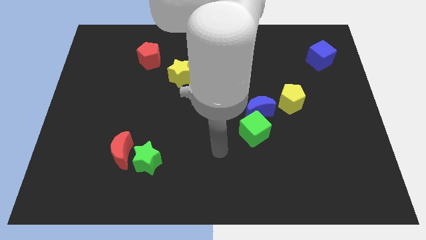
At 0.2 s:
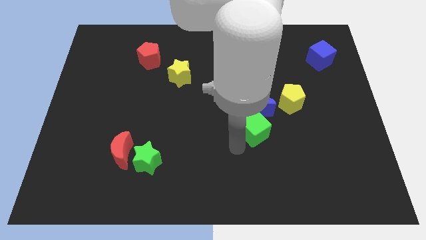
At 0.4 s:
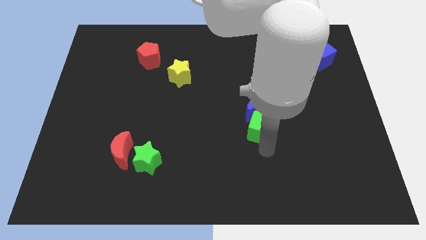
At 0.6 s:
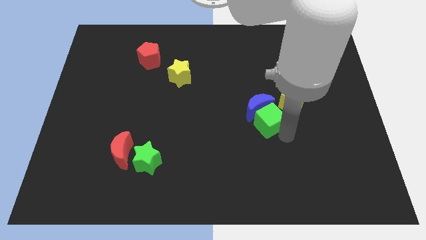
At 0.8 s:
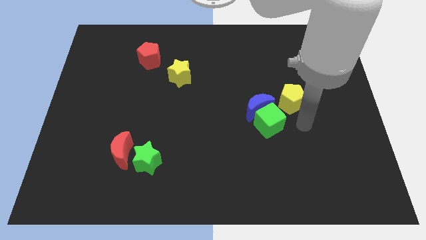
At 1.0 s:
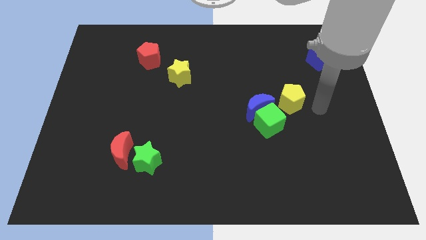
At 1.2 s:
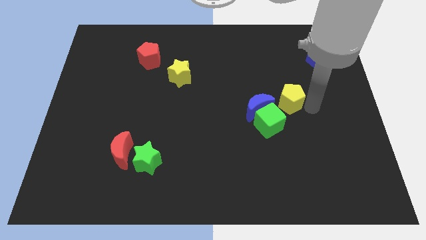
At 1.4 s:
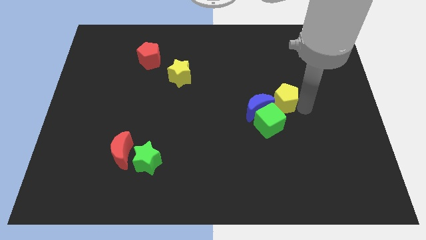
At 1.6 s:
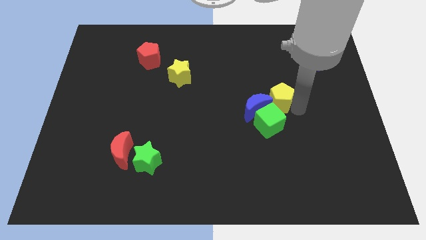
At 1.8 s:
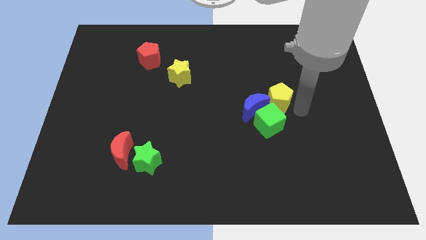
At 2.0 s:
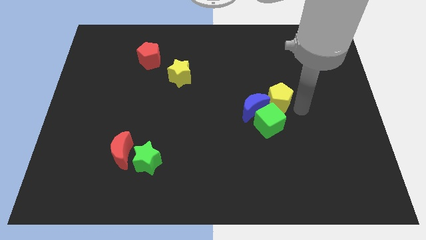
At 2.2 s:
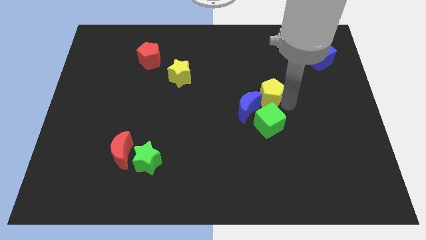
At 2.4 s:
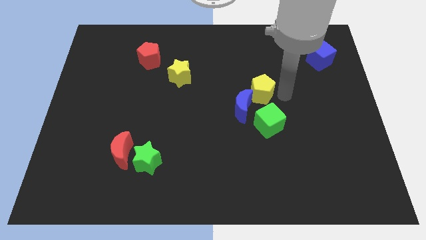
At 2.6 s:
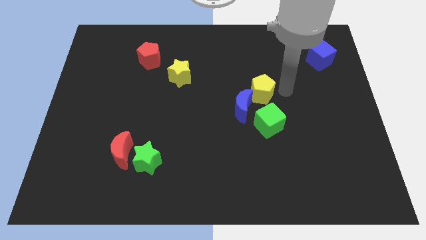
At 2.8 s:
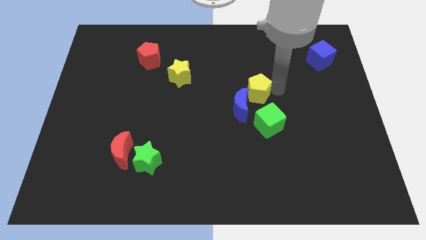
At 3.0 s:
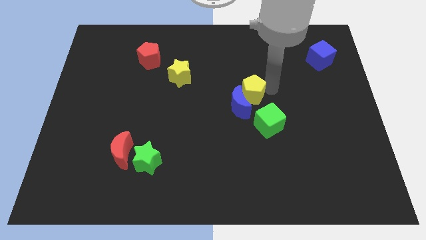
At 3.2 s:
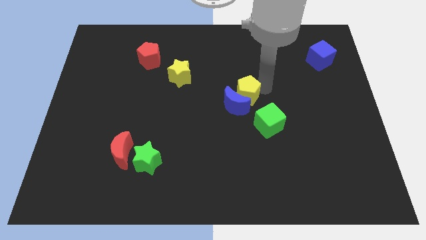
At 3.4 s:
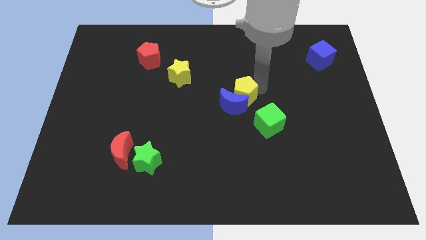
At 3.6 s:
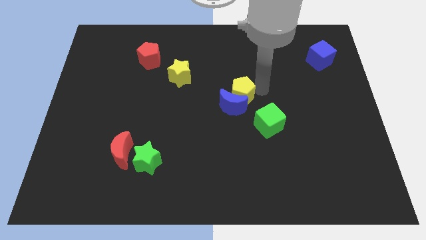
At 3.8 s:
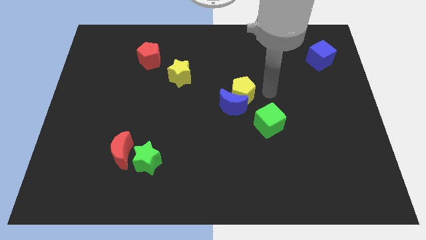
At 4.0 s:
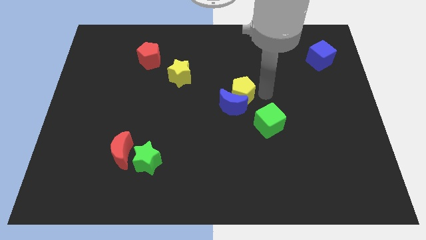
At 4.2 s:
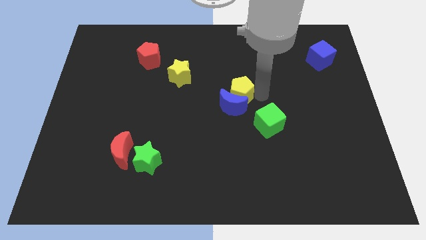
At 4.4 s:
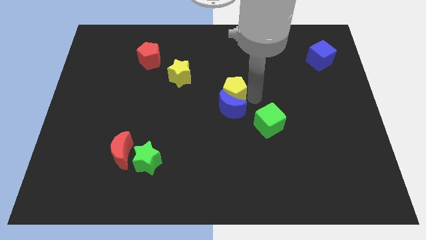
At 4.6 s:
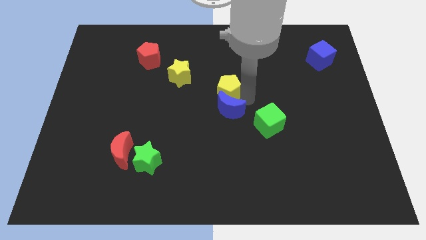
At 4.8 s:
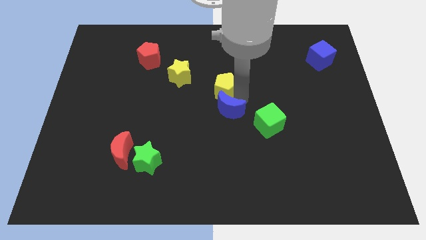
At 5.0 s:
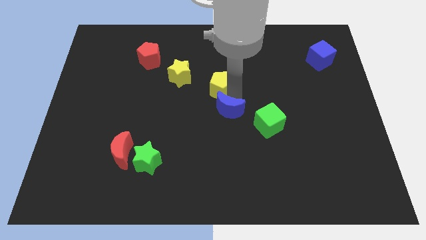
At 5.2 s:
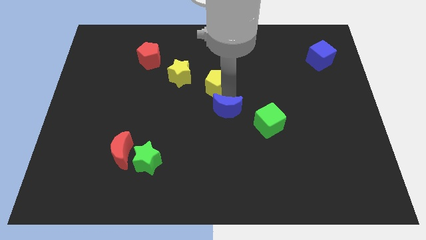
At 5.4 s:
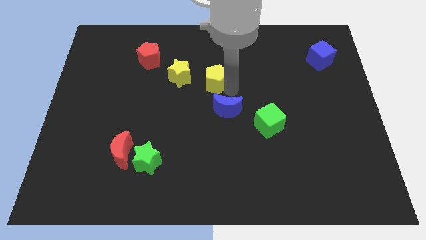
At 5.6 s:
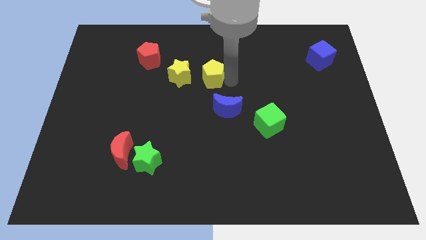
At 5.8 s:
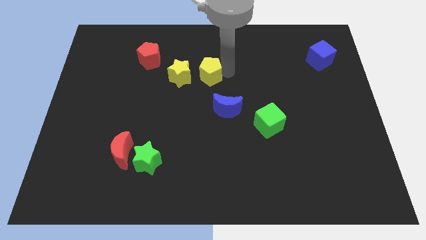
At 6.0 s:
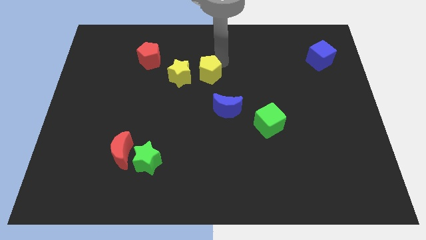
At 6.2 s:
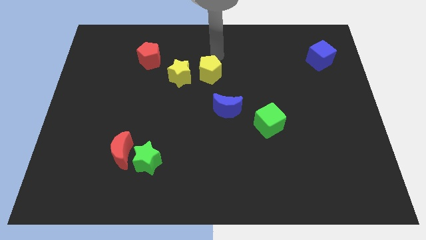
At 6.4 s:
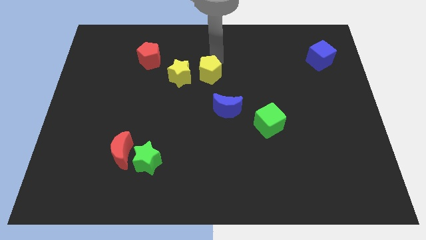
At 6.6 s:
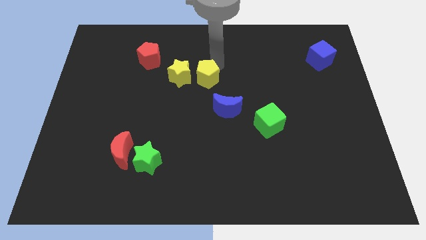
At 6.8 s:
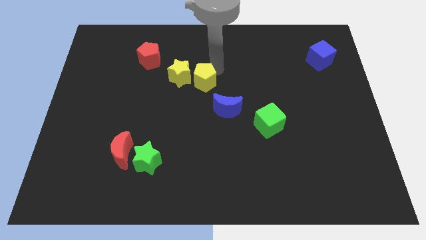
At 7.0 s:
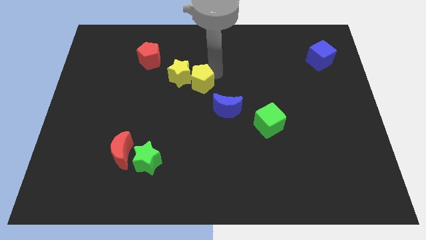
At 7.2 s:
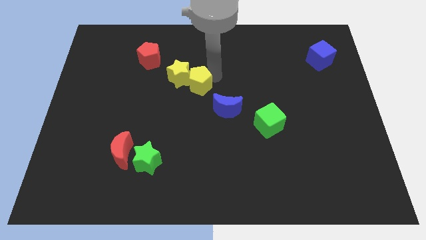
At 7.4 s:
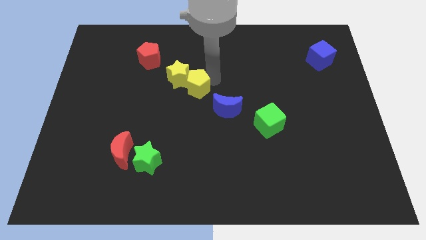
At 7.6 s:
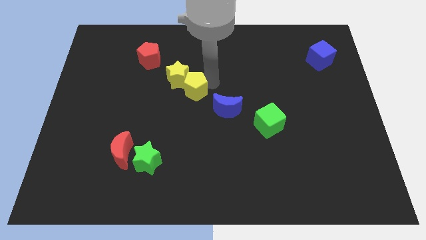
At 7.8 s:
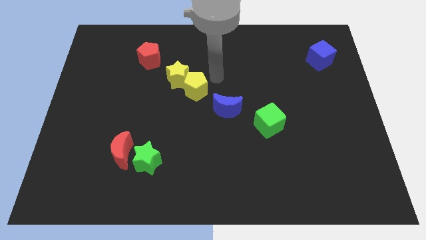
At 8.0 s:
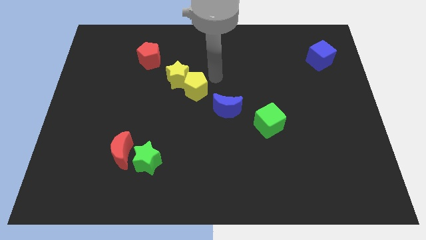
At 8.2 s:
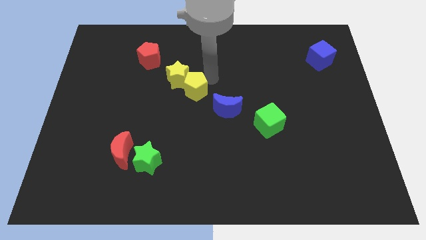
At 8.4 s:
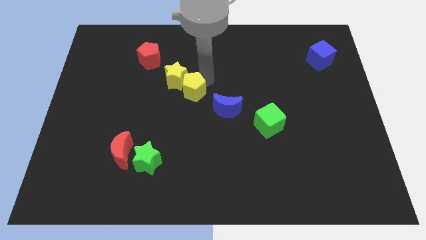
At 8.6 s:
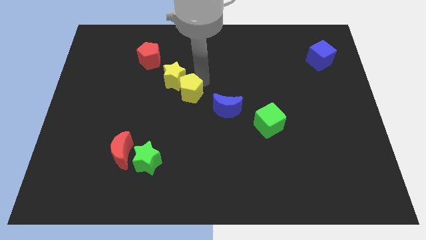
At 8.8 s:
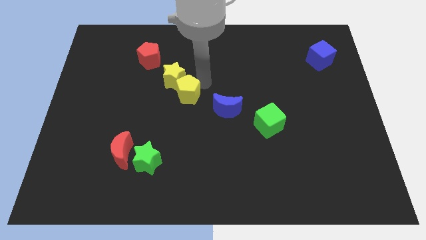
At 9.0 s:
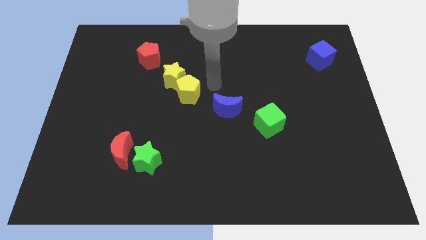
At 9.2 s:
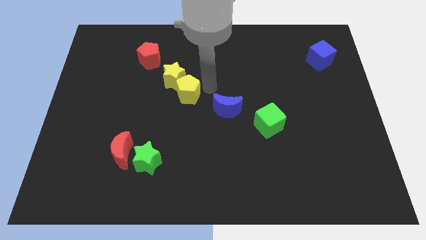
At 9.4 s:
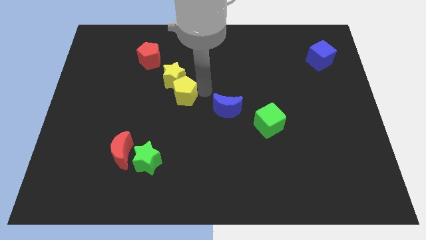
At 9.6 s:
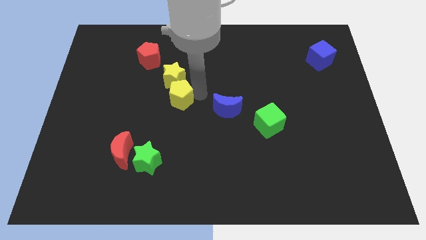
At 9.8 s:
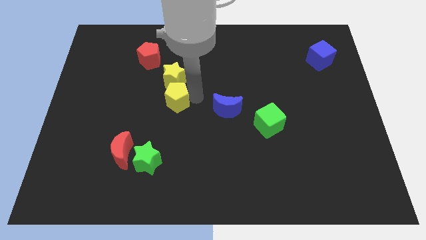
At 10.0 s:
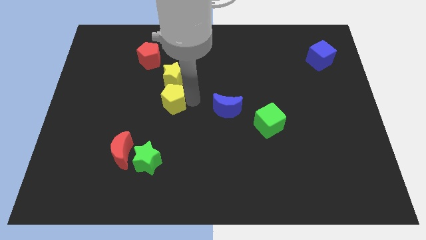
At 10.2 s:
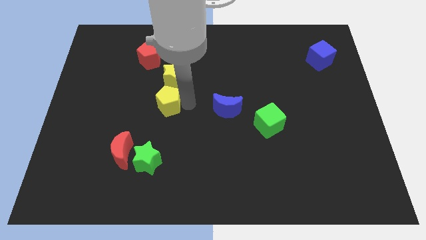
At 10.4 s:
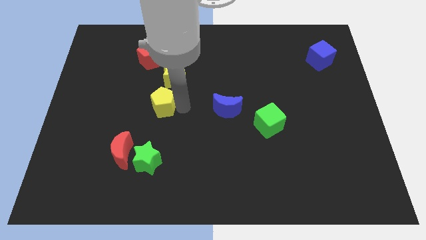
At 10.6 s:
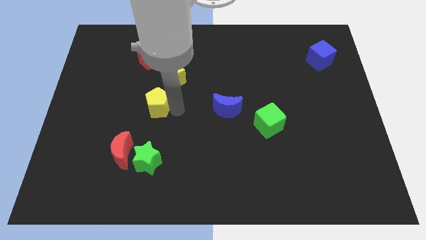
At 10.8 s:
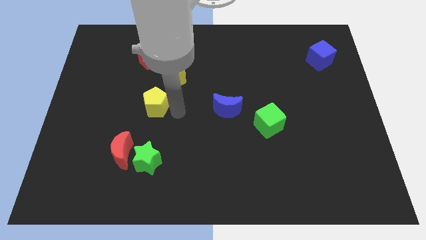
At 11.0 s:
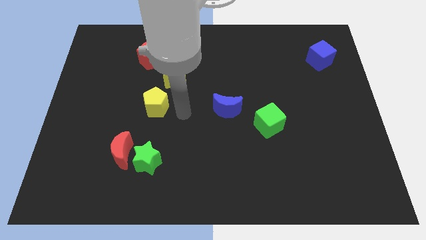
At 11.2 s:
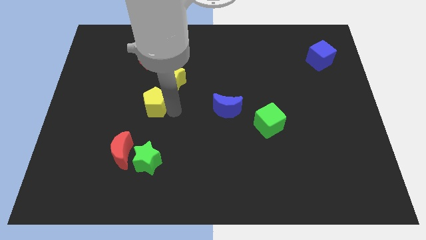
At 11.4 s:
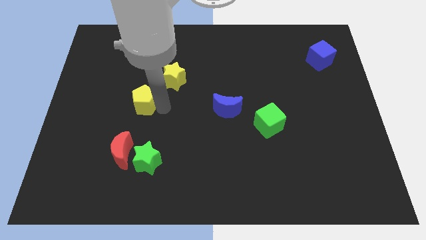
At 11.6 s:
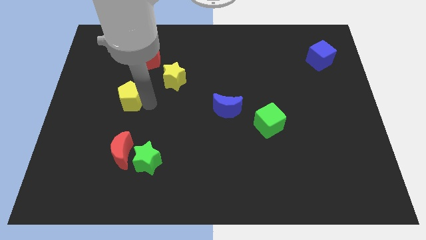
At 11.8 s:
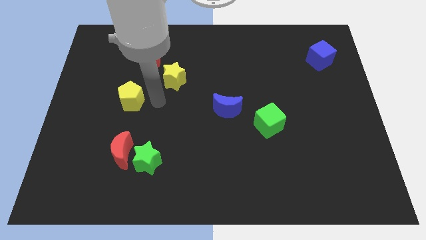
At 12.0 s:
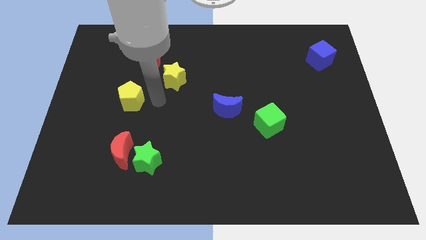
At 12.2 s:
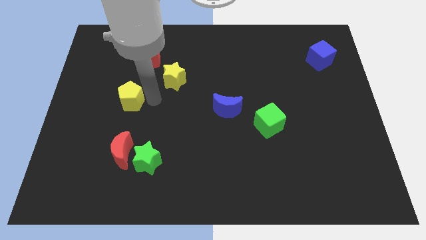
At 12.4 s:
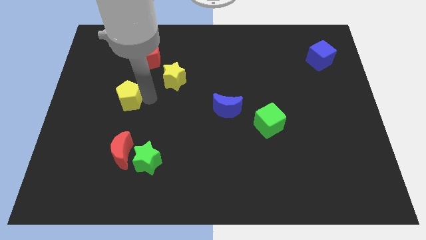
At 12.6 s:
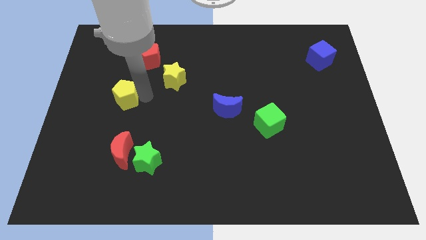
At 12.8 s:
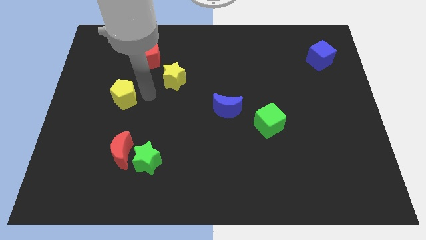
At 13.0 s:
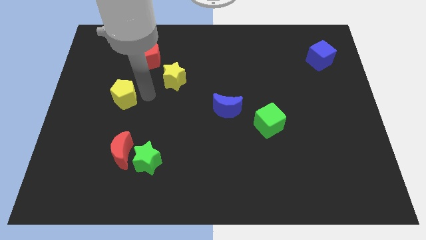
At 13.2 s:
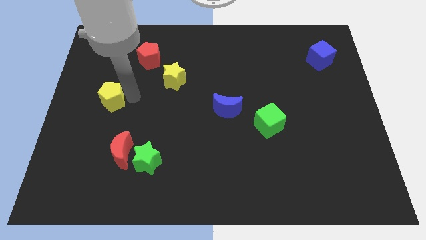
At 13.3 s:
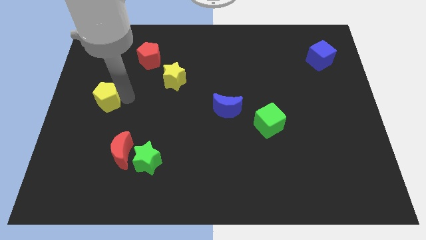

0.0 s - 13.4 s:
slide the yellow pentagon to the left side

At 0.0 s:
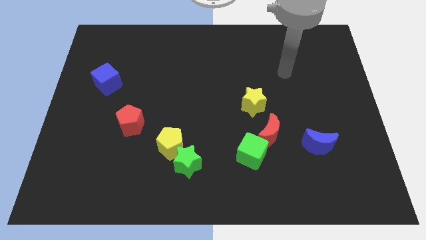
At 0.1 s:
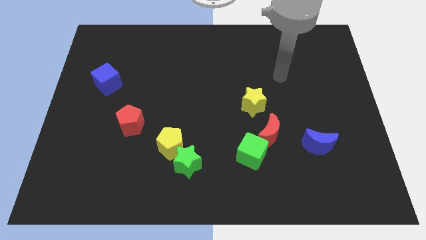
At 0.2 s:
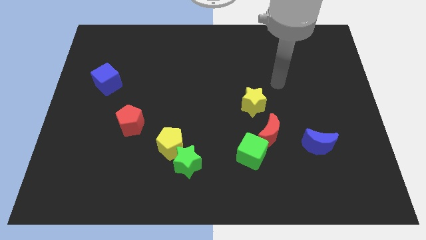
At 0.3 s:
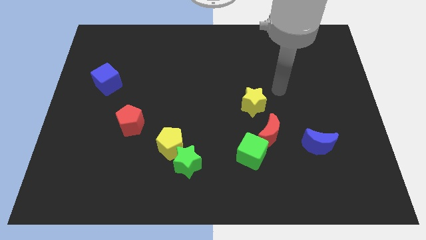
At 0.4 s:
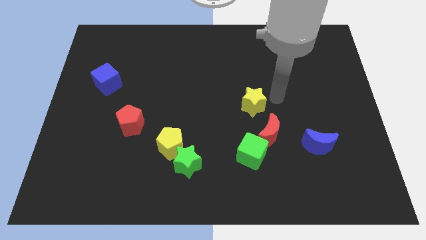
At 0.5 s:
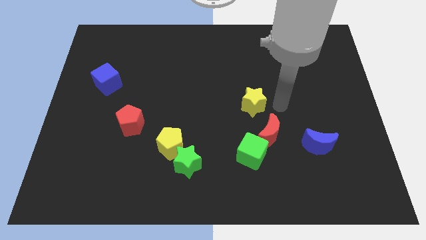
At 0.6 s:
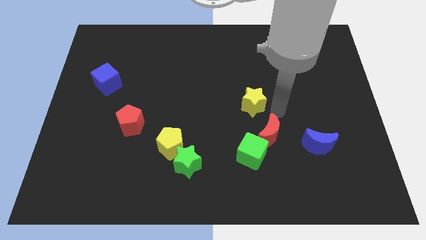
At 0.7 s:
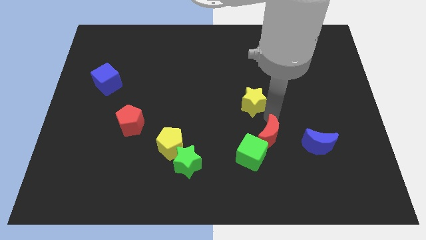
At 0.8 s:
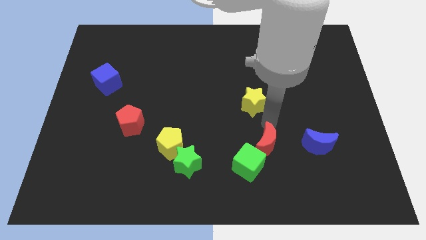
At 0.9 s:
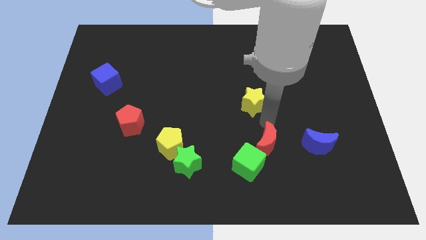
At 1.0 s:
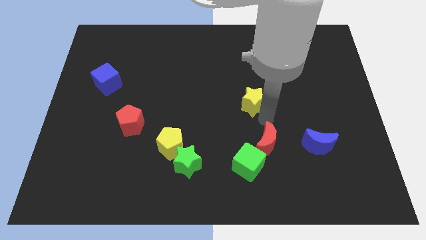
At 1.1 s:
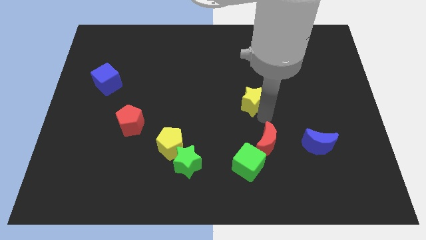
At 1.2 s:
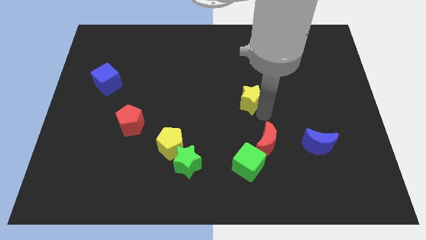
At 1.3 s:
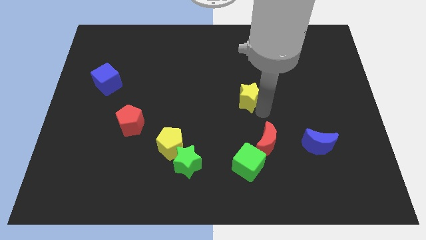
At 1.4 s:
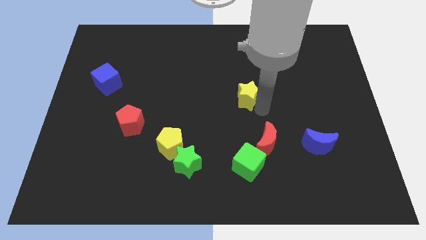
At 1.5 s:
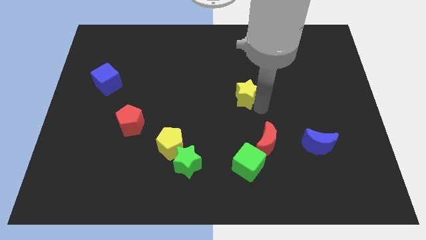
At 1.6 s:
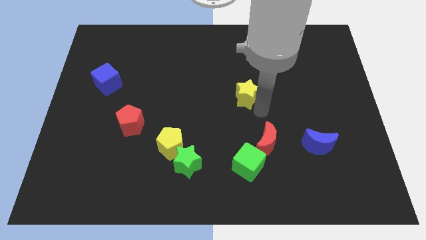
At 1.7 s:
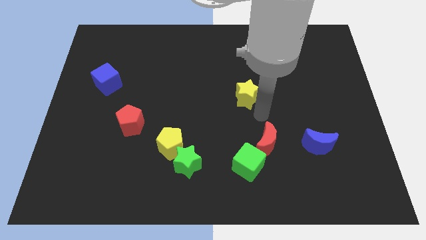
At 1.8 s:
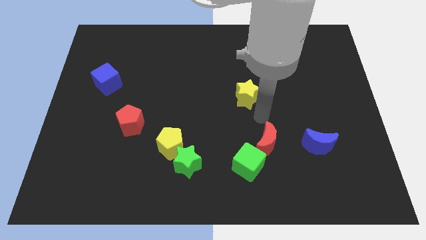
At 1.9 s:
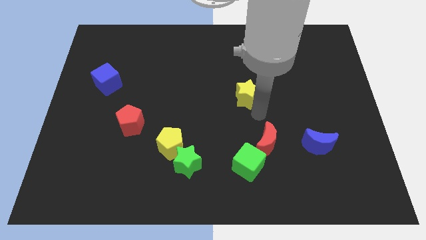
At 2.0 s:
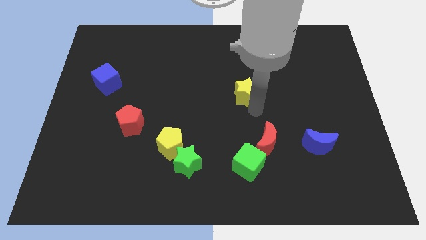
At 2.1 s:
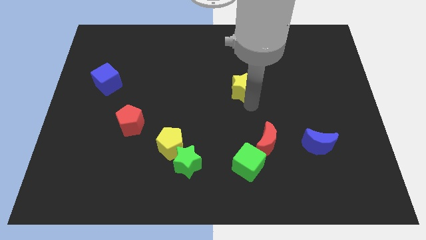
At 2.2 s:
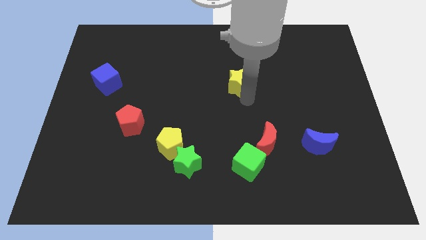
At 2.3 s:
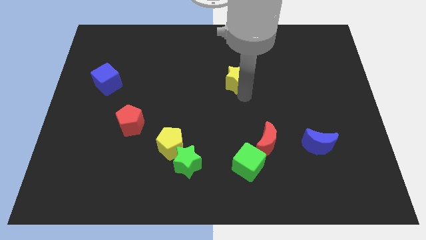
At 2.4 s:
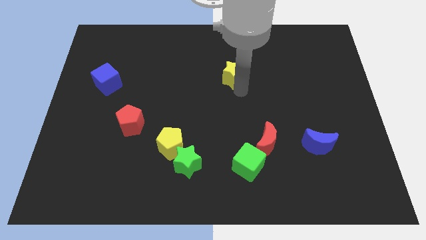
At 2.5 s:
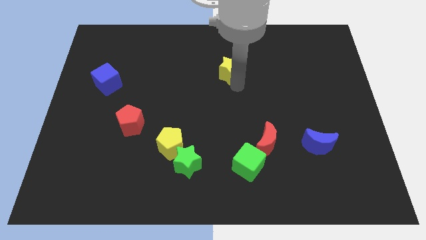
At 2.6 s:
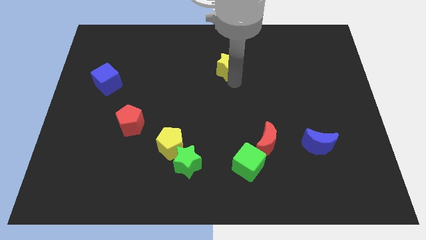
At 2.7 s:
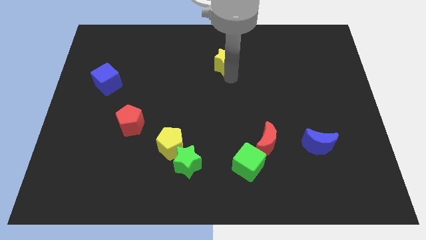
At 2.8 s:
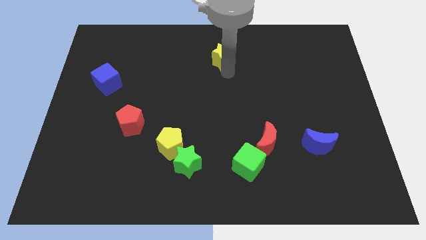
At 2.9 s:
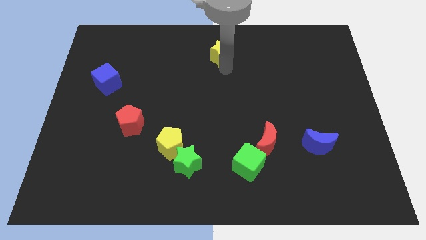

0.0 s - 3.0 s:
push the yellow star to the top side
